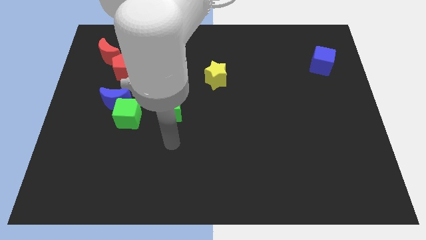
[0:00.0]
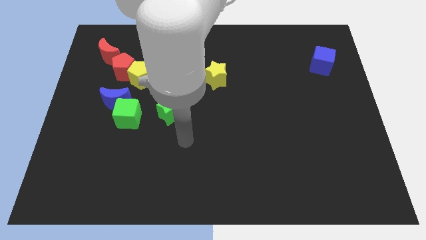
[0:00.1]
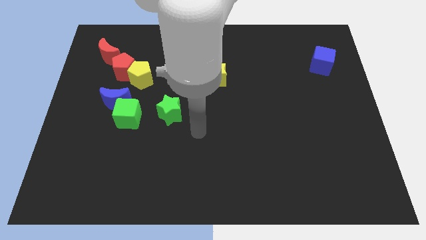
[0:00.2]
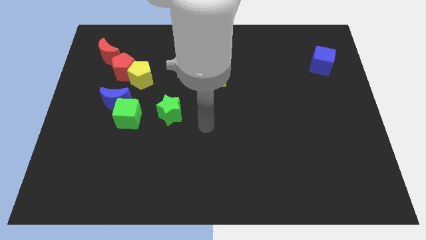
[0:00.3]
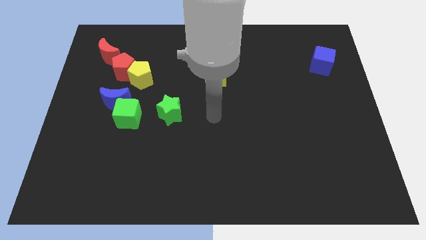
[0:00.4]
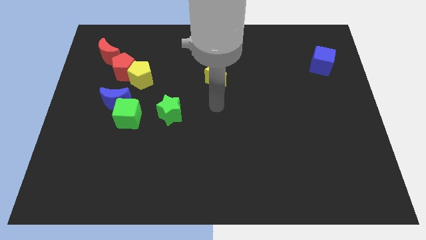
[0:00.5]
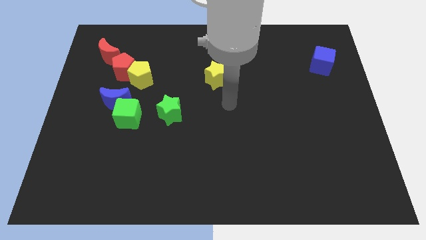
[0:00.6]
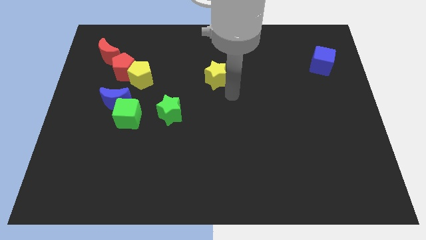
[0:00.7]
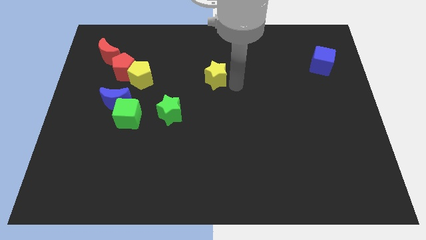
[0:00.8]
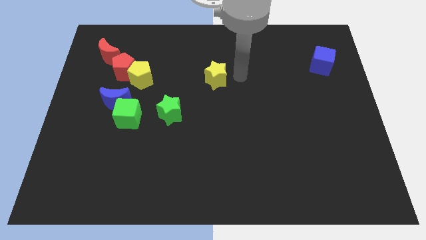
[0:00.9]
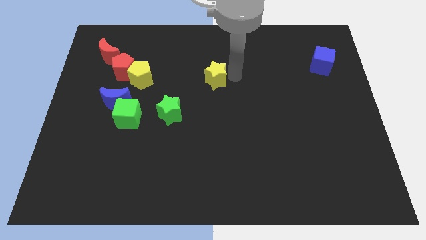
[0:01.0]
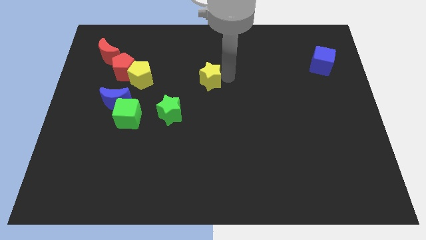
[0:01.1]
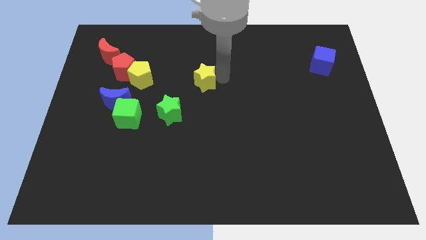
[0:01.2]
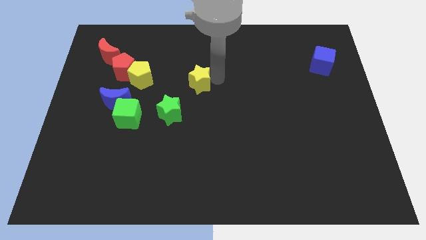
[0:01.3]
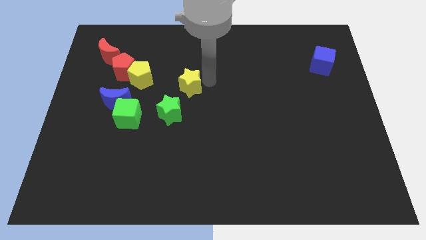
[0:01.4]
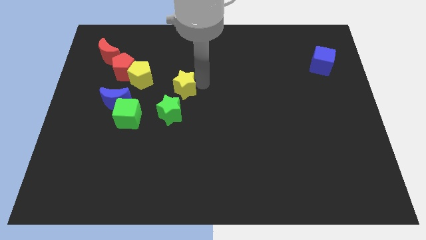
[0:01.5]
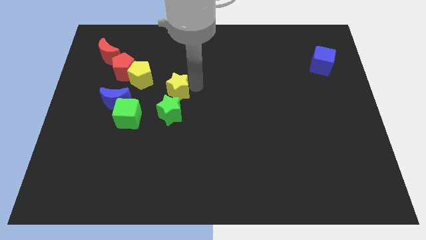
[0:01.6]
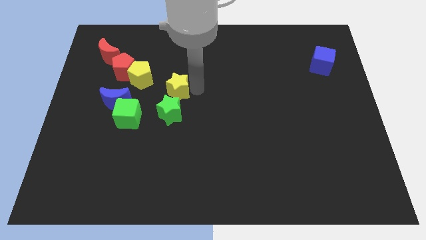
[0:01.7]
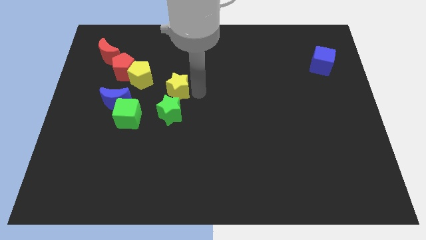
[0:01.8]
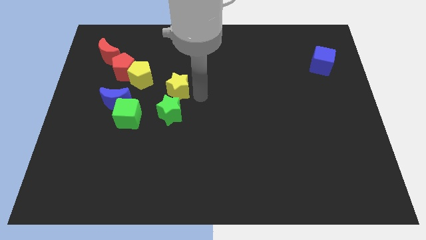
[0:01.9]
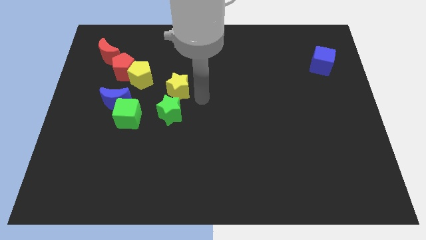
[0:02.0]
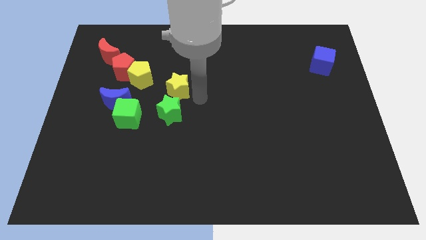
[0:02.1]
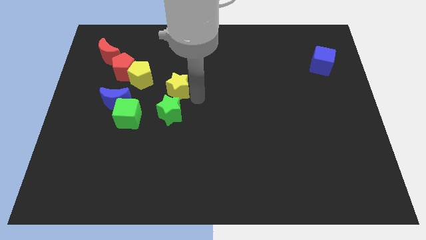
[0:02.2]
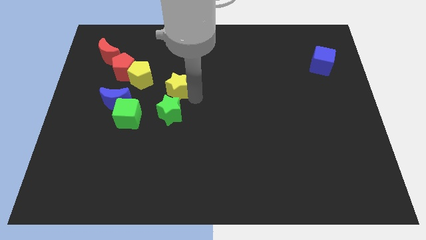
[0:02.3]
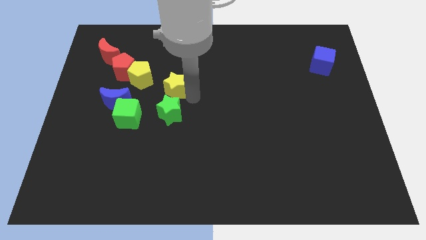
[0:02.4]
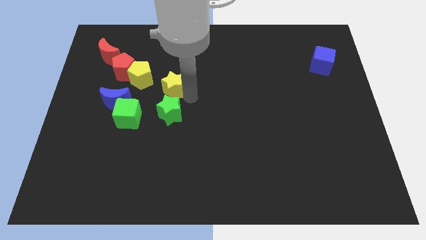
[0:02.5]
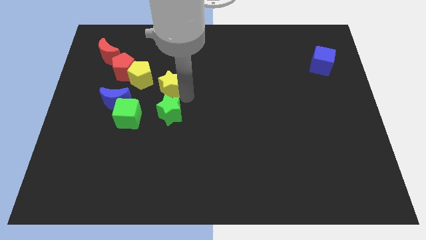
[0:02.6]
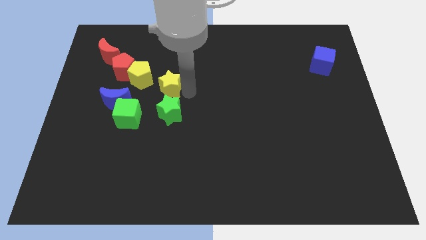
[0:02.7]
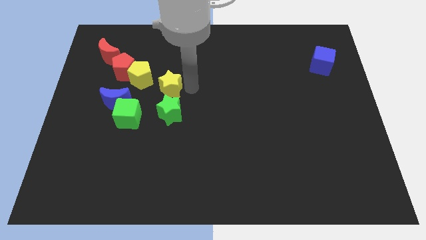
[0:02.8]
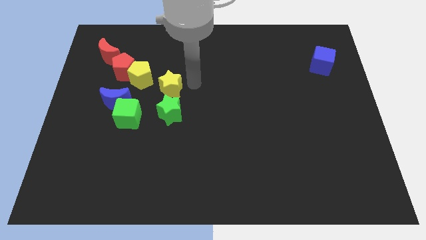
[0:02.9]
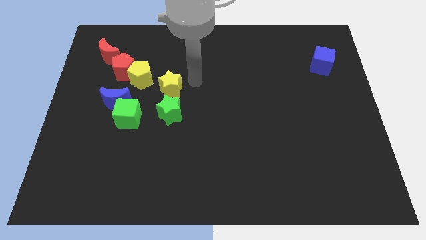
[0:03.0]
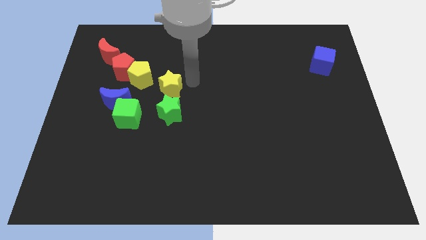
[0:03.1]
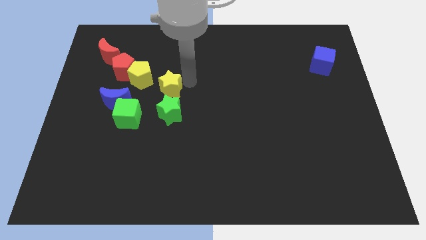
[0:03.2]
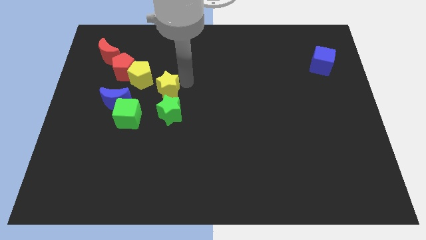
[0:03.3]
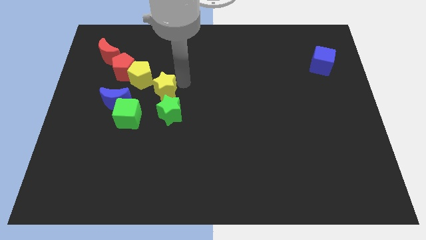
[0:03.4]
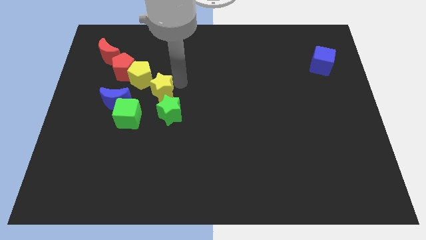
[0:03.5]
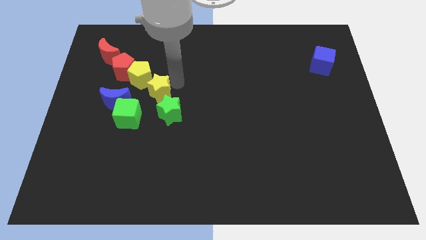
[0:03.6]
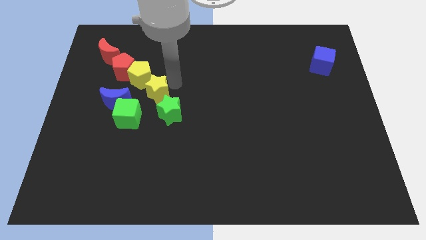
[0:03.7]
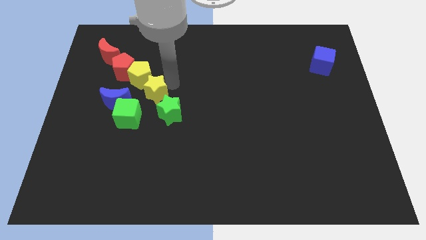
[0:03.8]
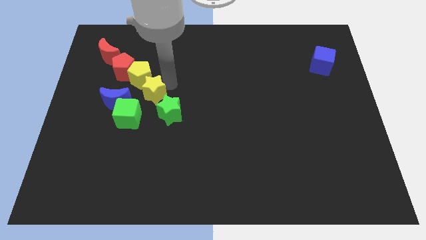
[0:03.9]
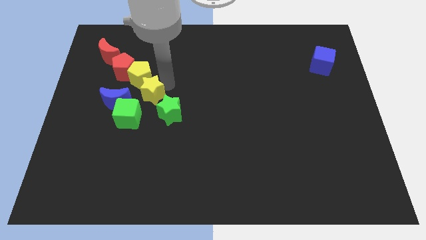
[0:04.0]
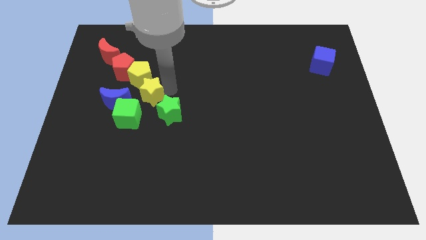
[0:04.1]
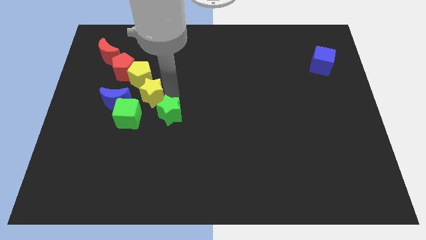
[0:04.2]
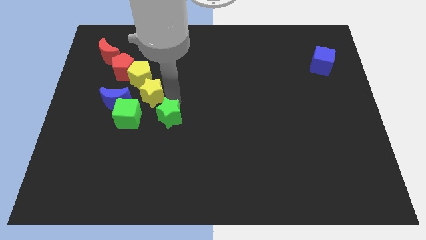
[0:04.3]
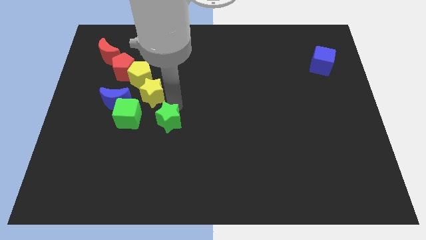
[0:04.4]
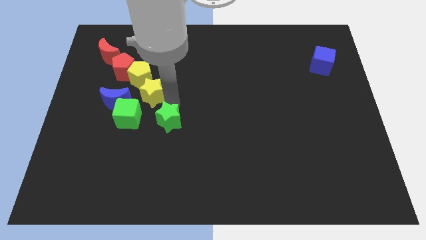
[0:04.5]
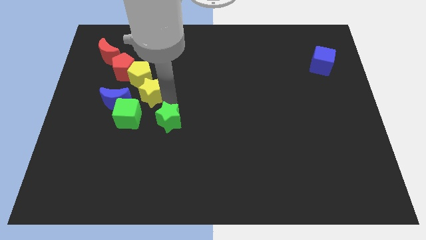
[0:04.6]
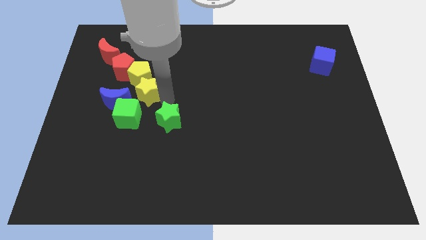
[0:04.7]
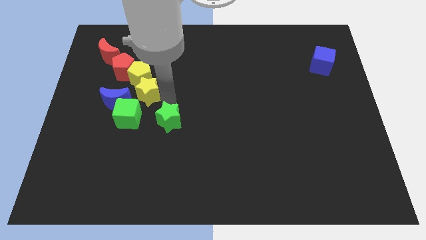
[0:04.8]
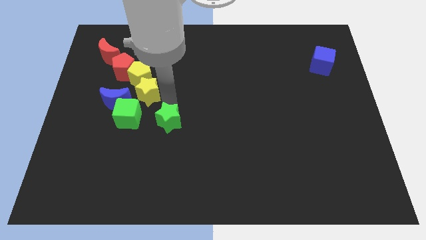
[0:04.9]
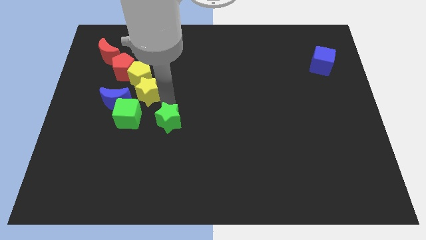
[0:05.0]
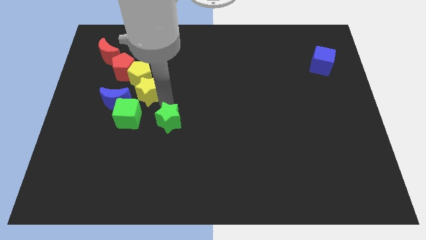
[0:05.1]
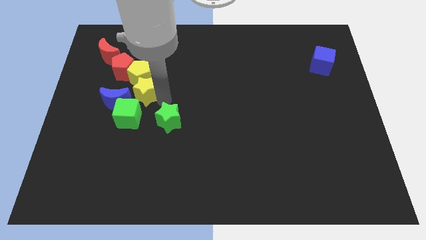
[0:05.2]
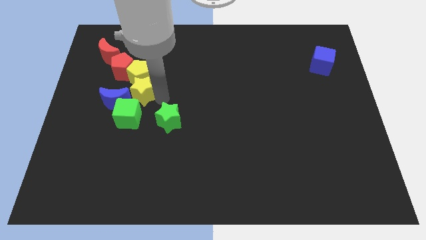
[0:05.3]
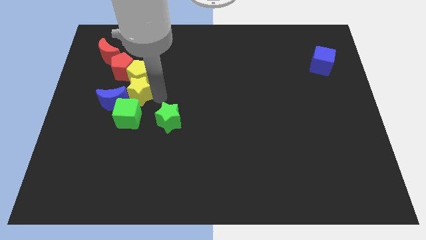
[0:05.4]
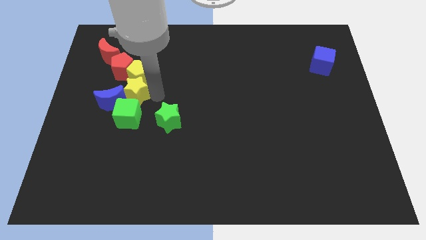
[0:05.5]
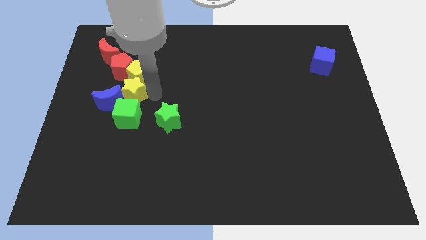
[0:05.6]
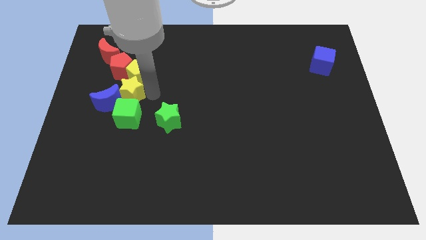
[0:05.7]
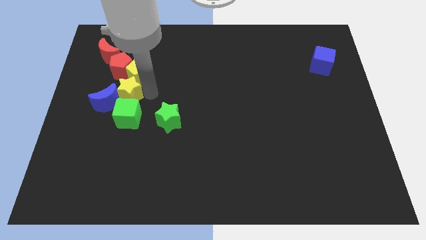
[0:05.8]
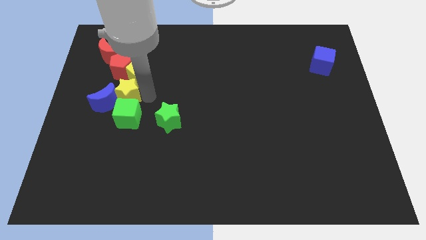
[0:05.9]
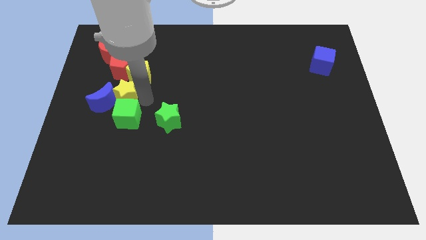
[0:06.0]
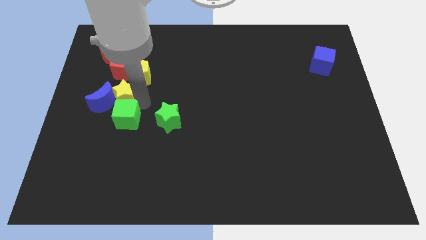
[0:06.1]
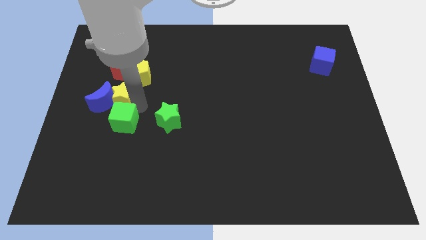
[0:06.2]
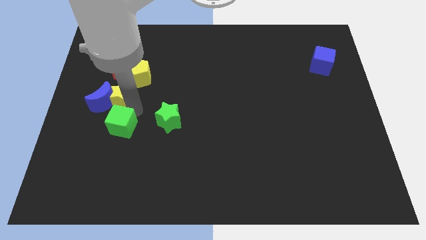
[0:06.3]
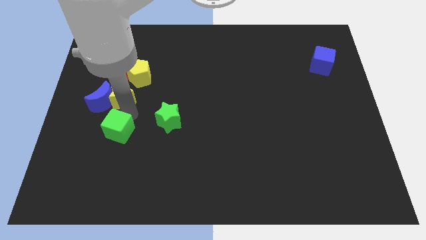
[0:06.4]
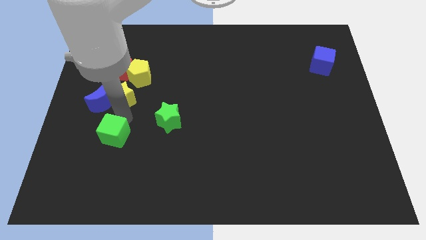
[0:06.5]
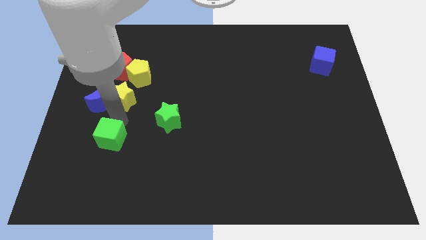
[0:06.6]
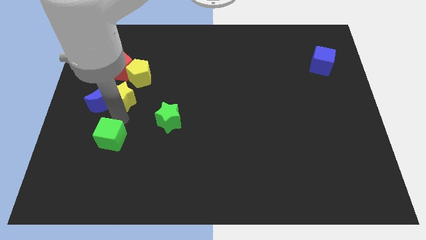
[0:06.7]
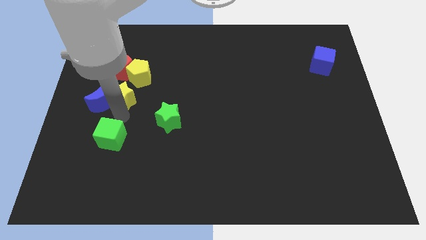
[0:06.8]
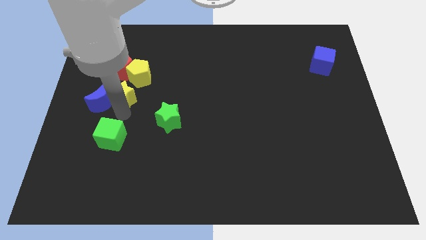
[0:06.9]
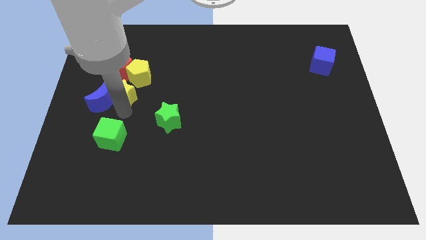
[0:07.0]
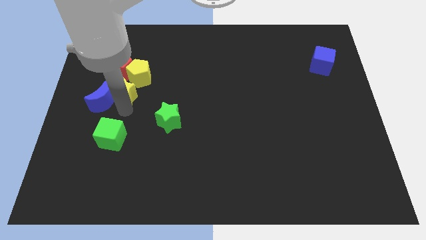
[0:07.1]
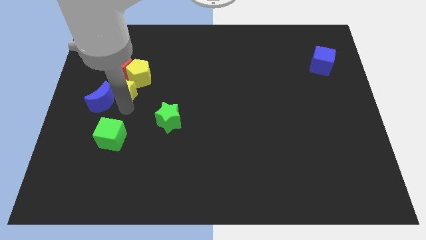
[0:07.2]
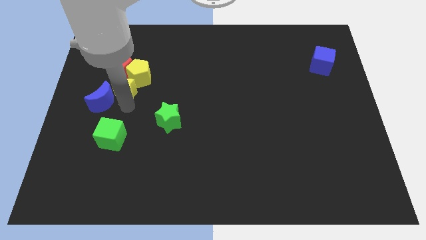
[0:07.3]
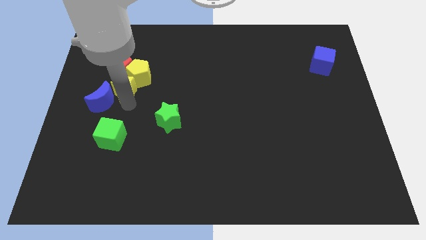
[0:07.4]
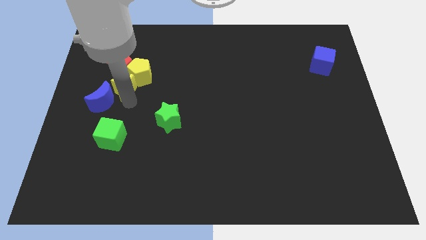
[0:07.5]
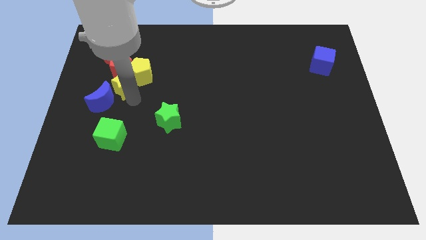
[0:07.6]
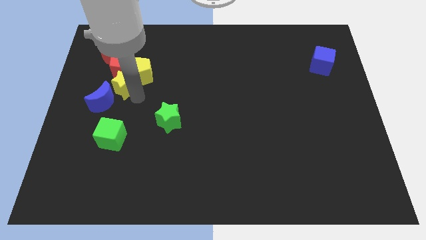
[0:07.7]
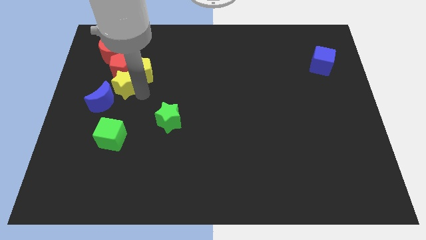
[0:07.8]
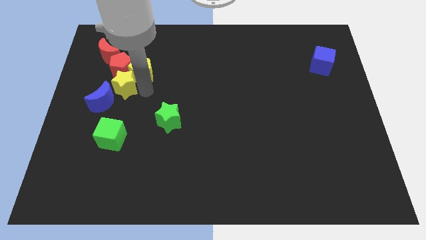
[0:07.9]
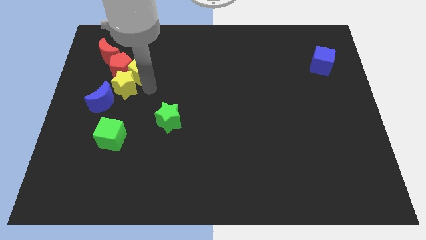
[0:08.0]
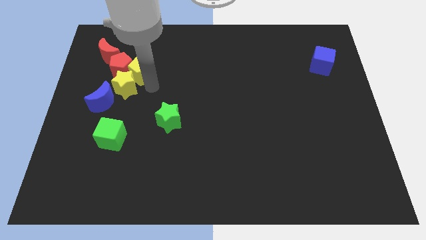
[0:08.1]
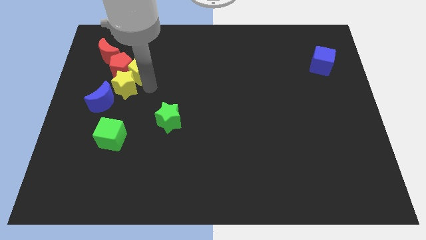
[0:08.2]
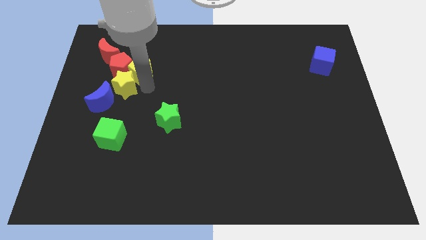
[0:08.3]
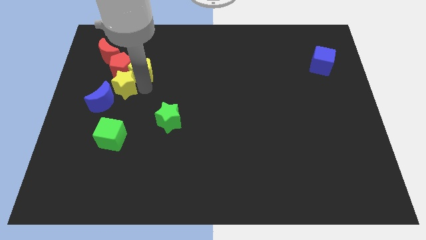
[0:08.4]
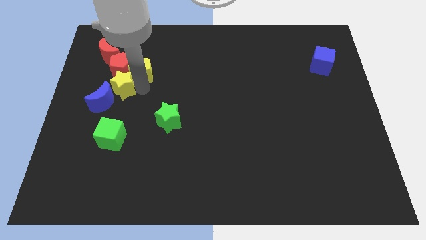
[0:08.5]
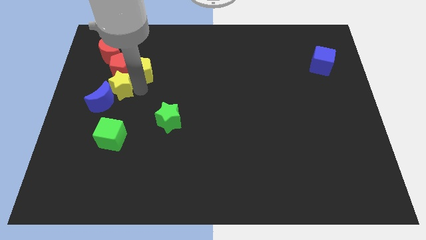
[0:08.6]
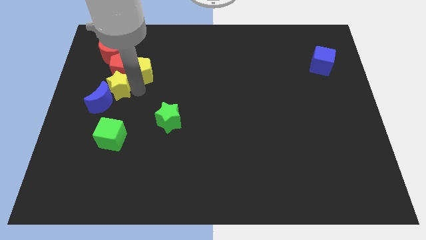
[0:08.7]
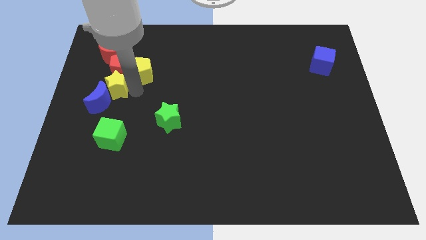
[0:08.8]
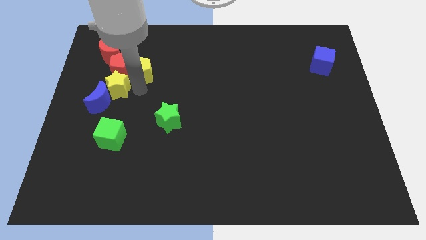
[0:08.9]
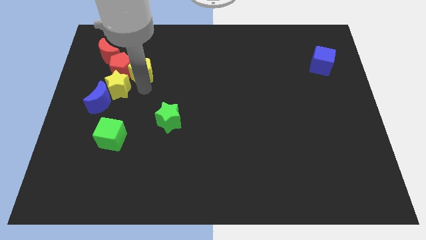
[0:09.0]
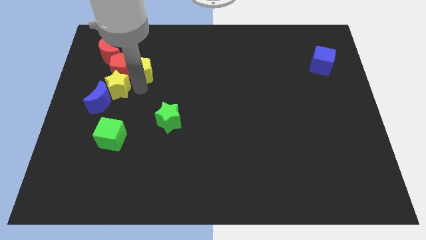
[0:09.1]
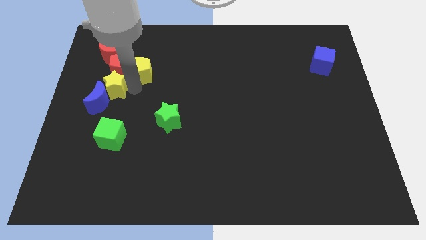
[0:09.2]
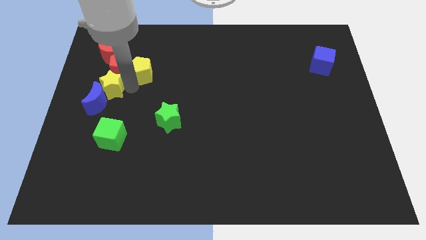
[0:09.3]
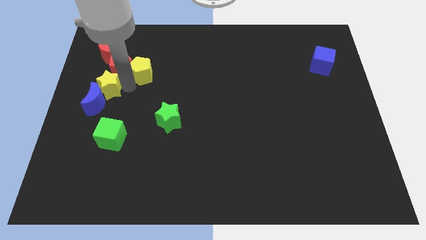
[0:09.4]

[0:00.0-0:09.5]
put the yellow star to the left side
